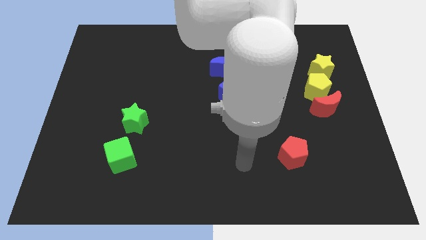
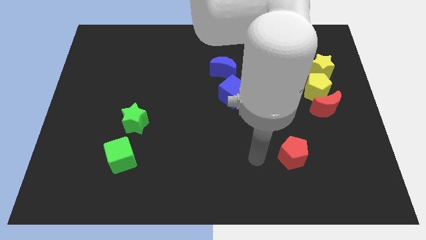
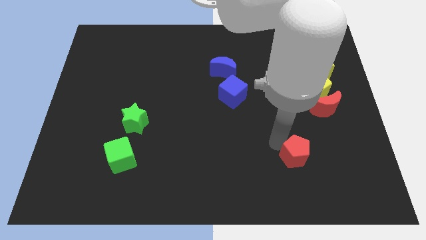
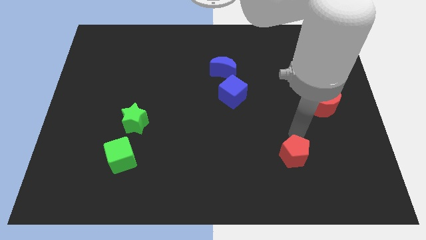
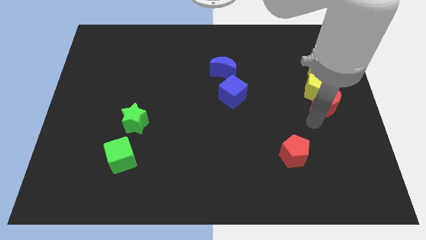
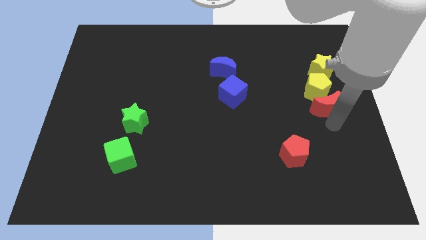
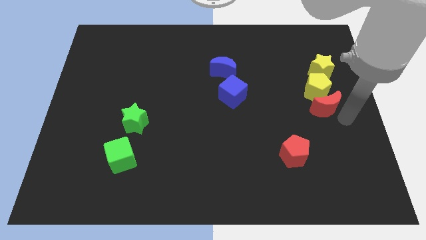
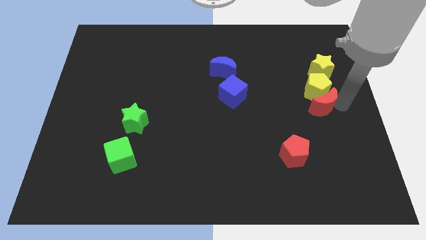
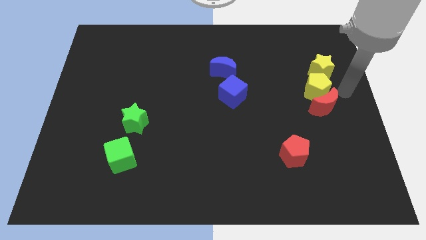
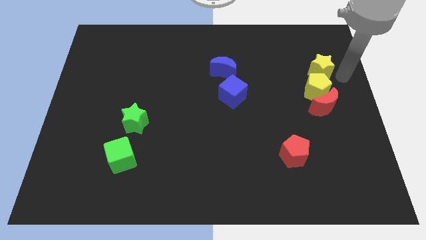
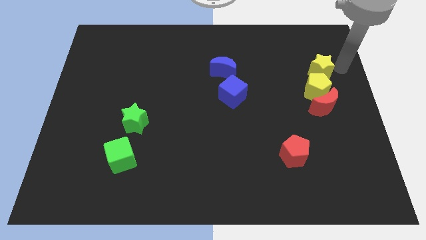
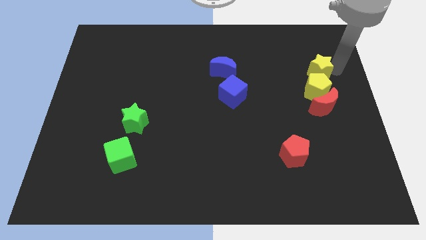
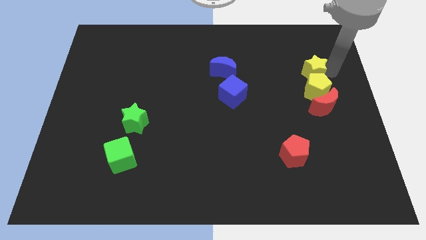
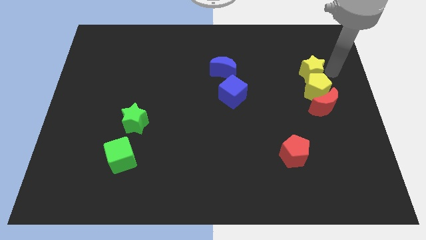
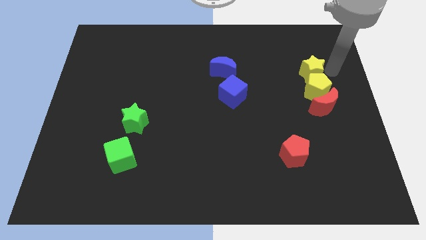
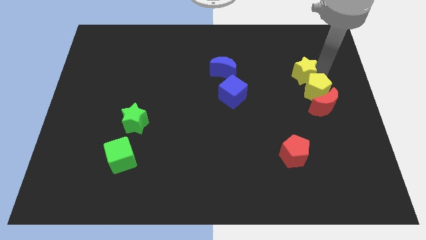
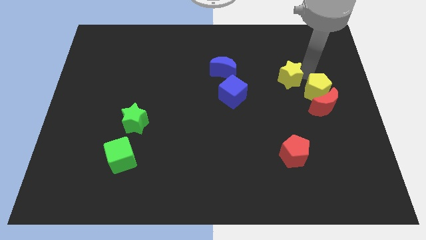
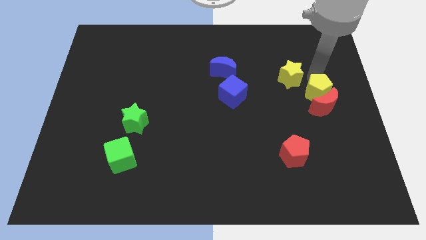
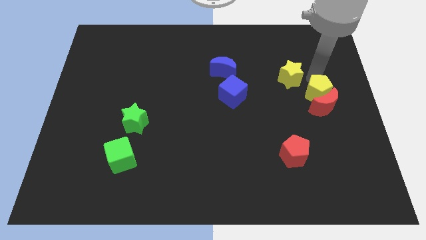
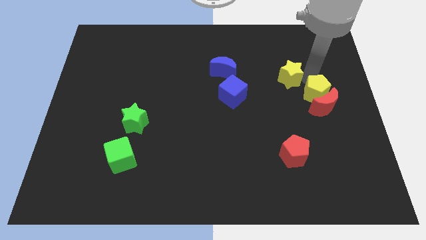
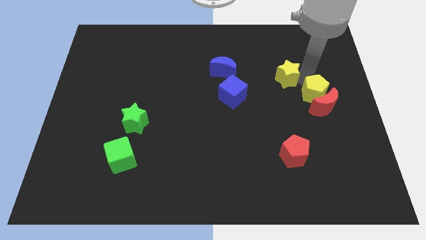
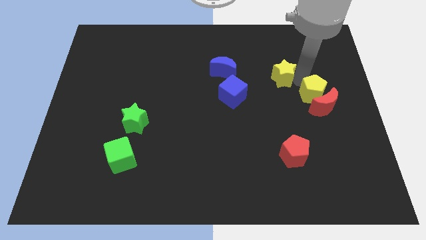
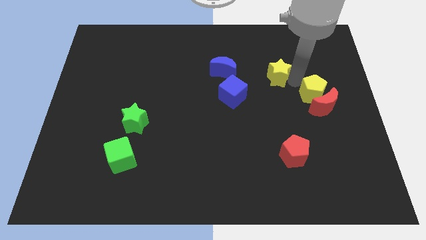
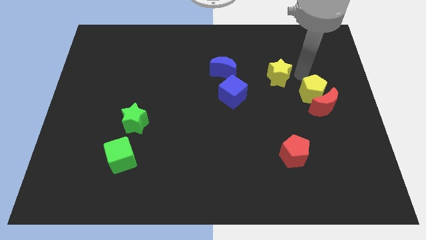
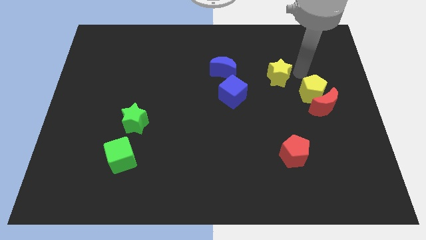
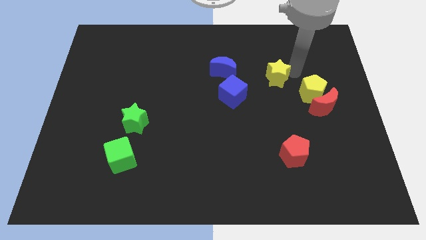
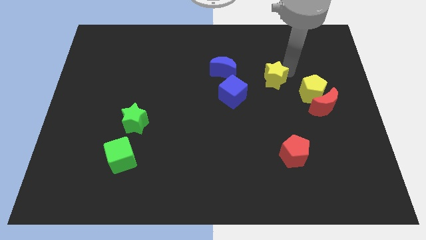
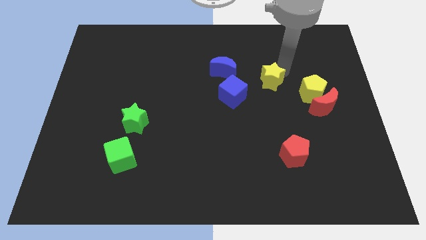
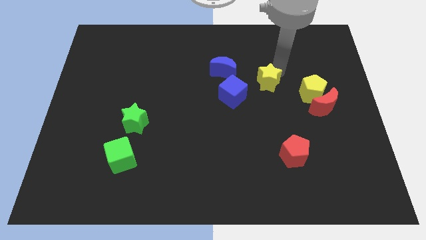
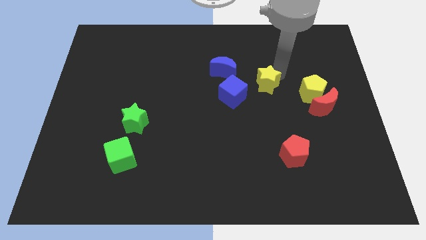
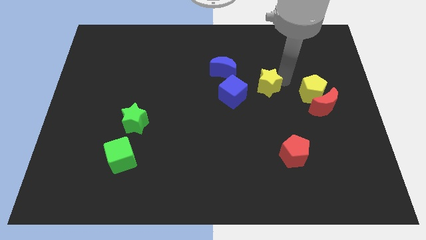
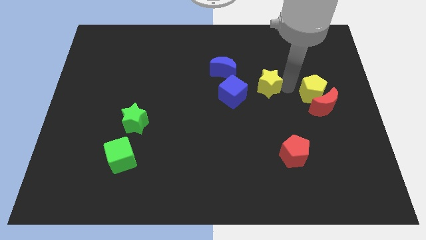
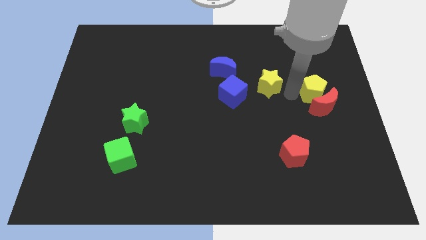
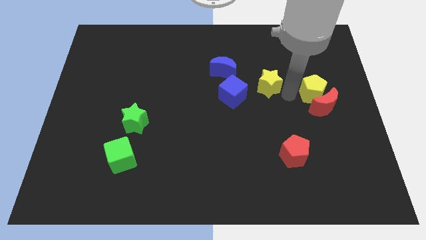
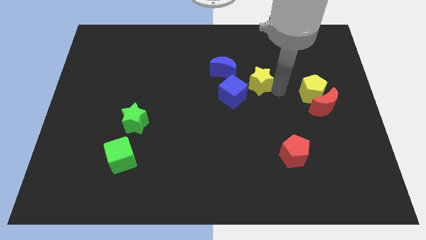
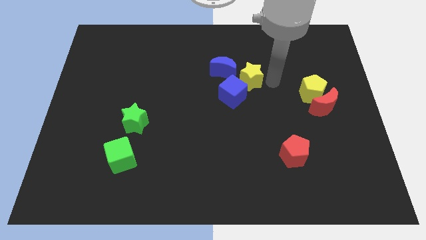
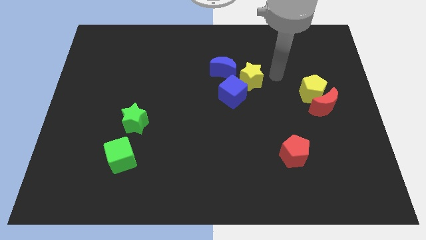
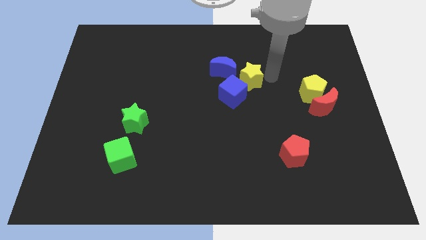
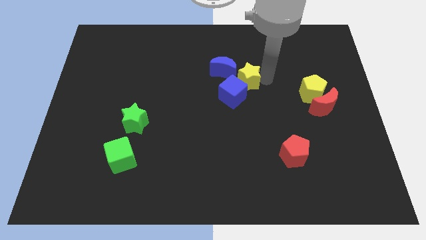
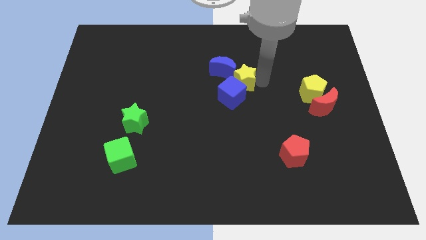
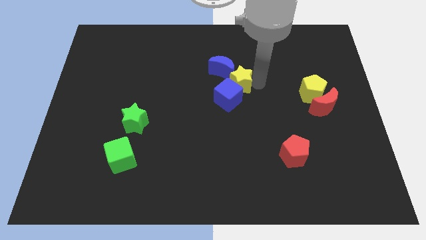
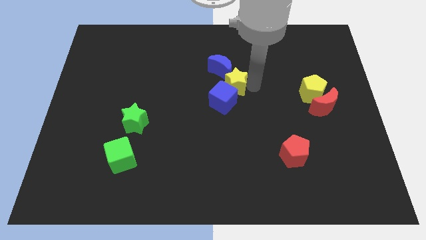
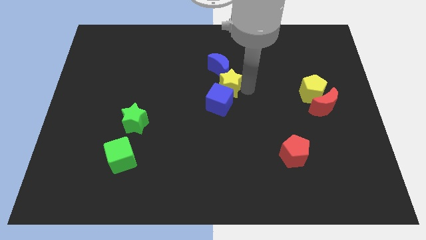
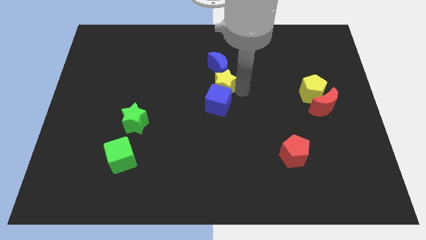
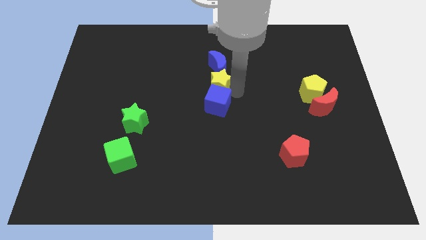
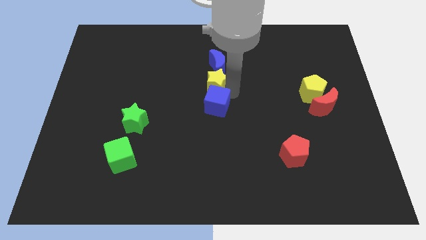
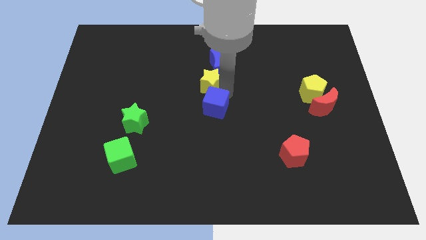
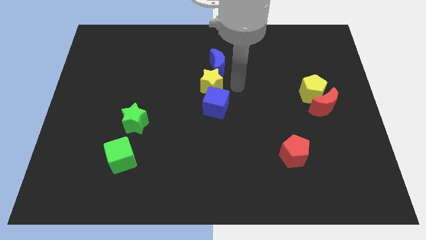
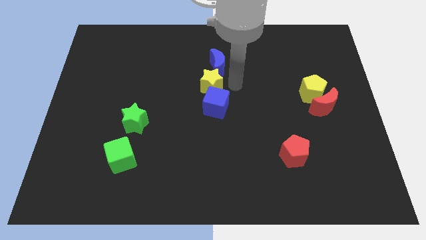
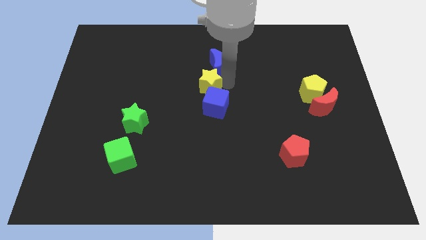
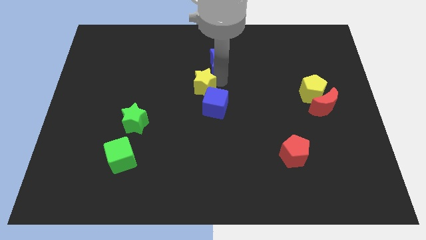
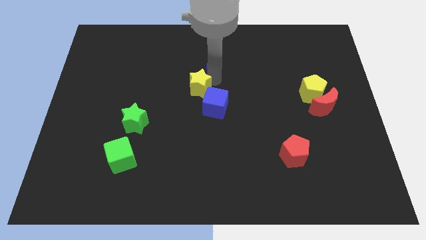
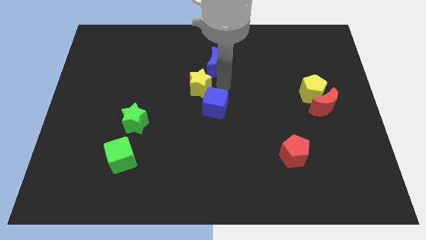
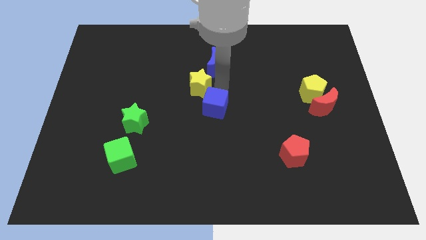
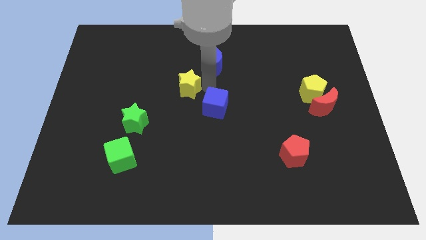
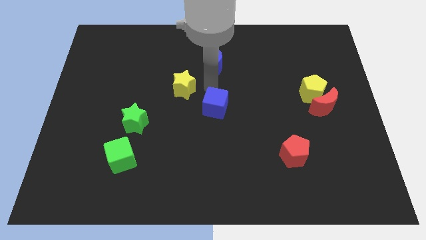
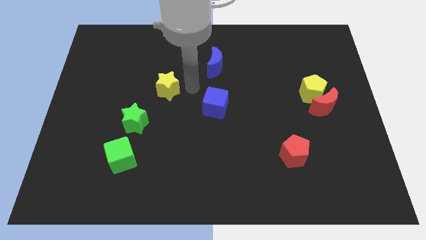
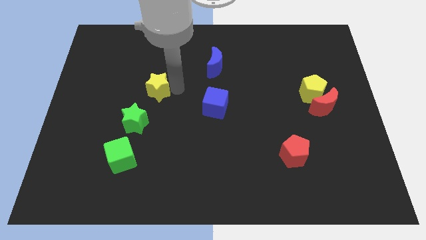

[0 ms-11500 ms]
put the yellow star to the top side of the green star
